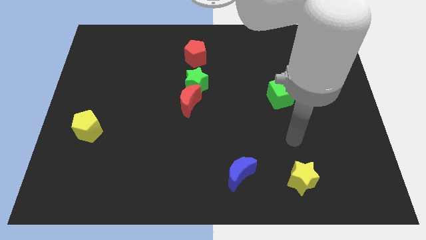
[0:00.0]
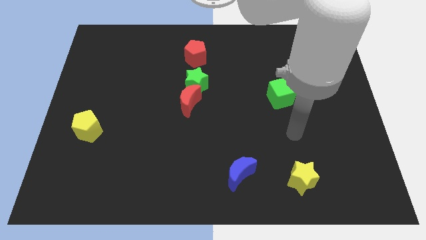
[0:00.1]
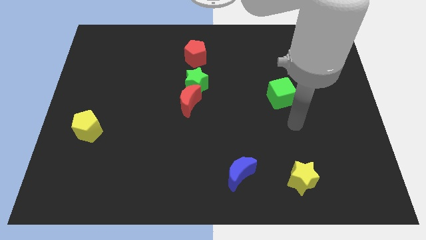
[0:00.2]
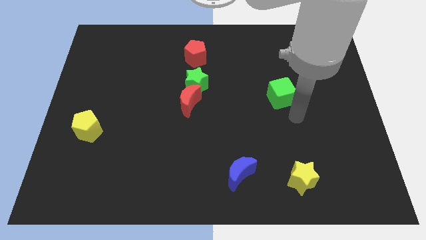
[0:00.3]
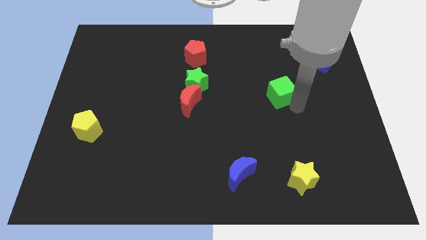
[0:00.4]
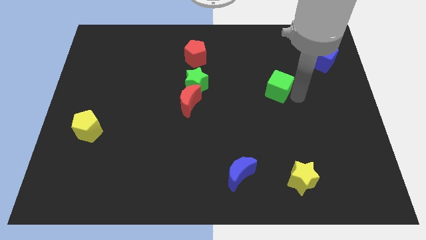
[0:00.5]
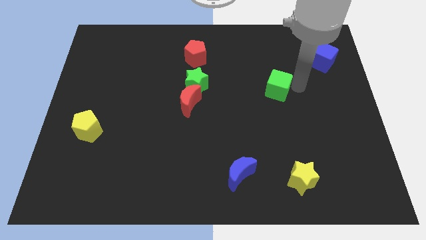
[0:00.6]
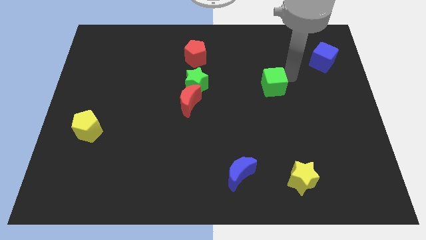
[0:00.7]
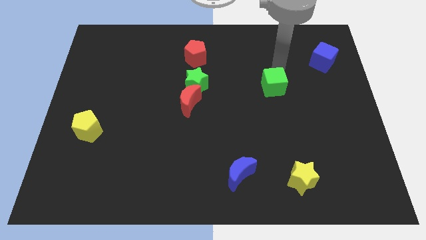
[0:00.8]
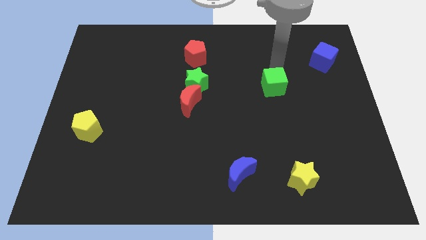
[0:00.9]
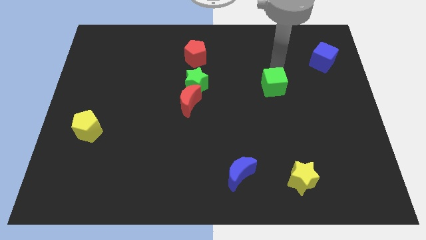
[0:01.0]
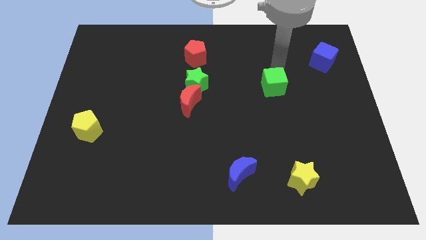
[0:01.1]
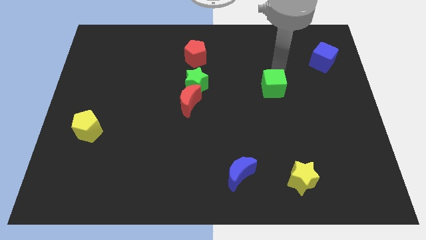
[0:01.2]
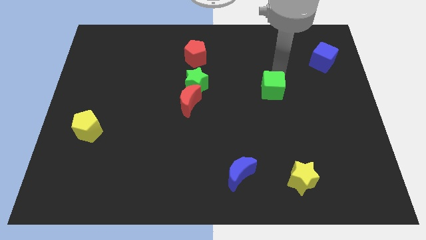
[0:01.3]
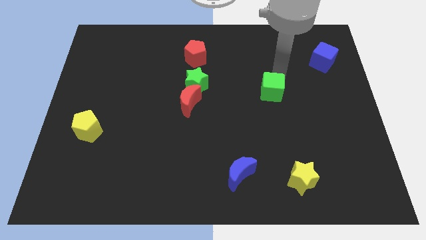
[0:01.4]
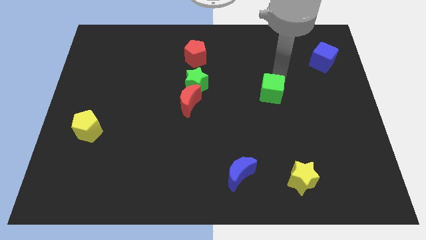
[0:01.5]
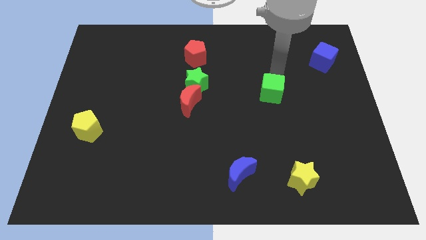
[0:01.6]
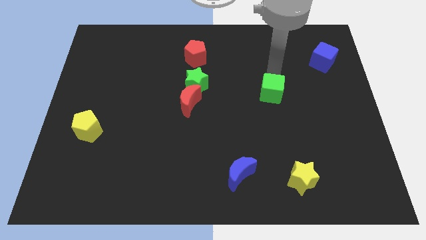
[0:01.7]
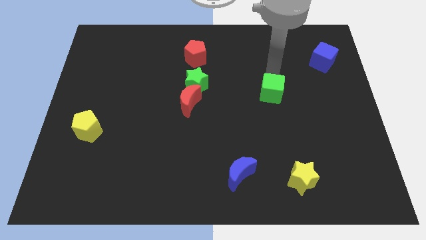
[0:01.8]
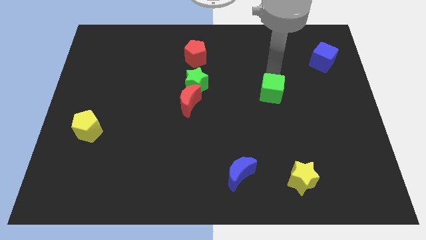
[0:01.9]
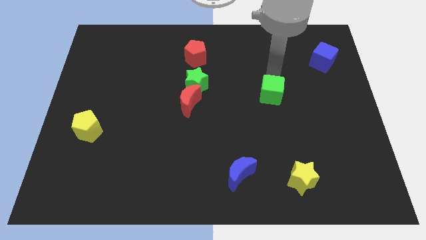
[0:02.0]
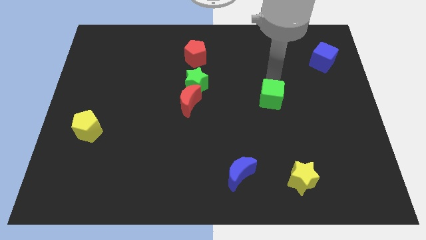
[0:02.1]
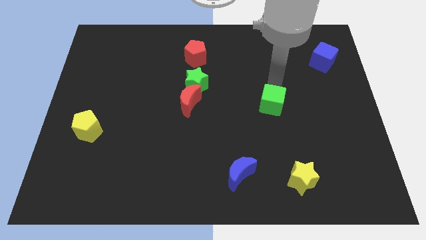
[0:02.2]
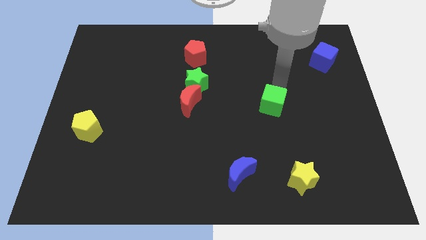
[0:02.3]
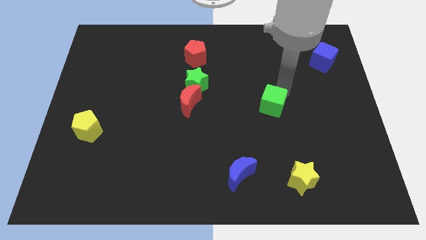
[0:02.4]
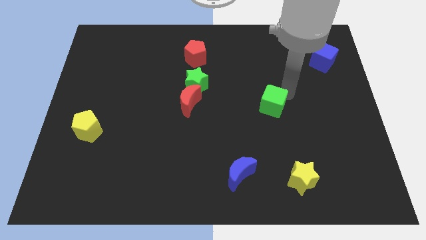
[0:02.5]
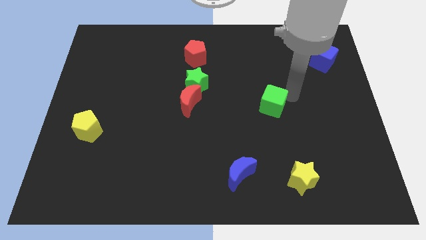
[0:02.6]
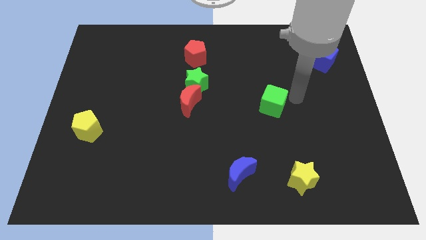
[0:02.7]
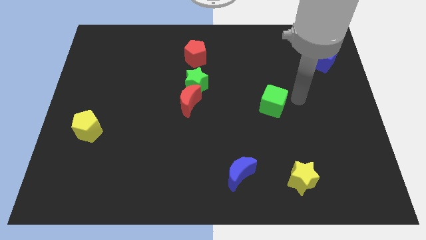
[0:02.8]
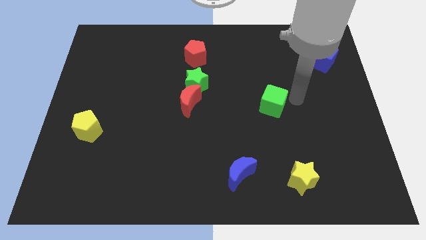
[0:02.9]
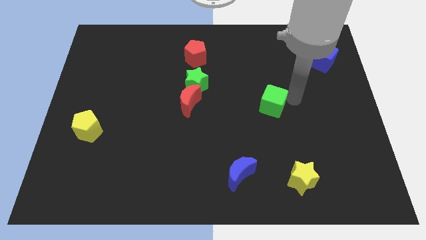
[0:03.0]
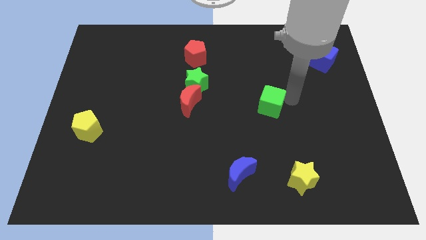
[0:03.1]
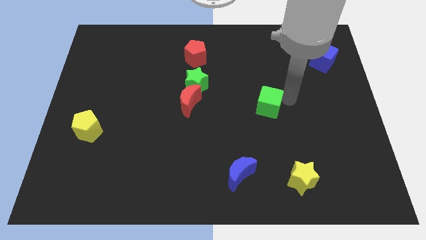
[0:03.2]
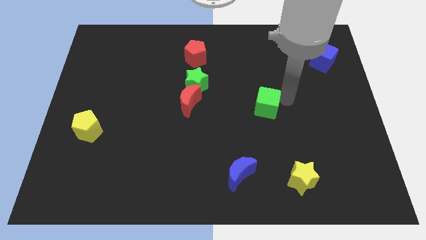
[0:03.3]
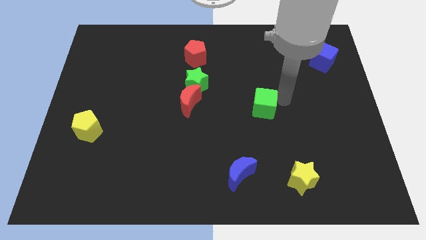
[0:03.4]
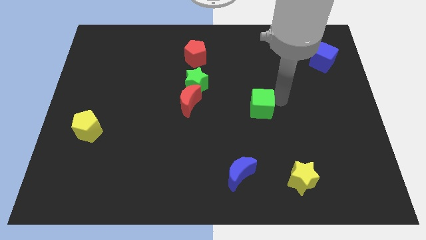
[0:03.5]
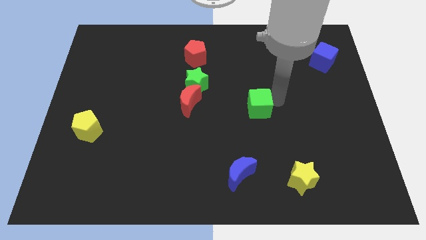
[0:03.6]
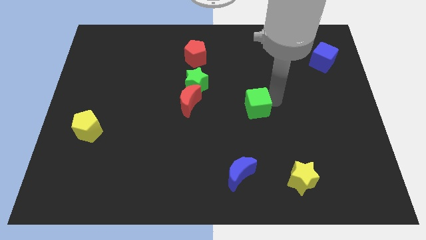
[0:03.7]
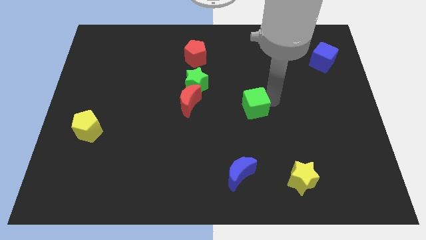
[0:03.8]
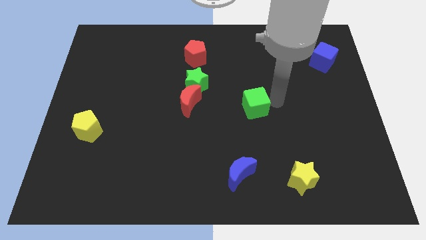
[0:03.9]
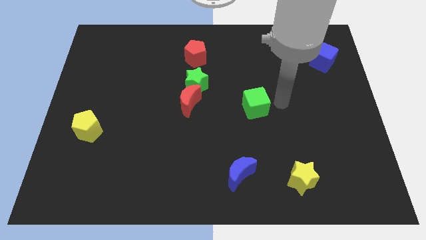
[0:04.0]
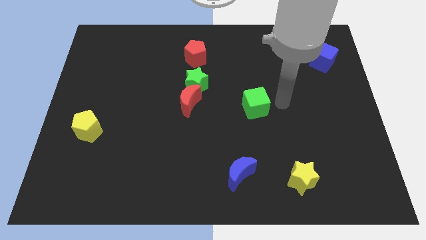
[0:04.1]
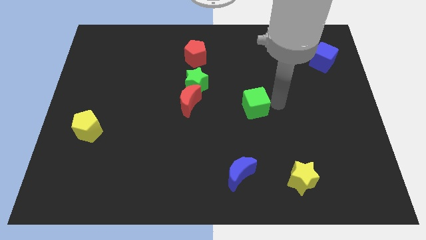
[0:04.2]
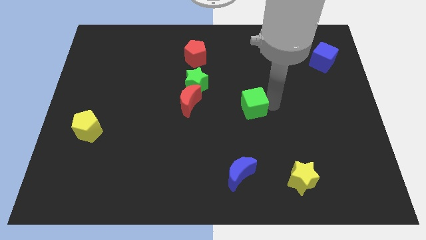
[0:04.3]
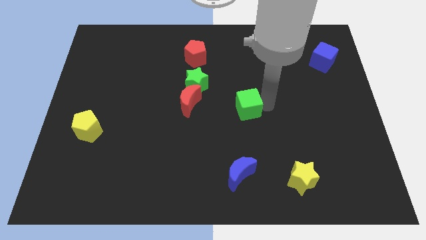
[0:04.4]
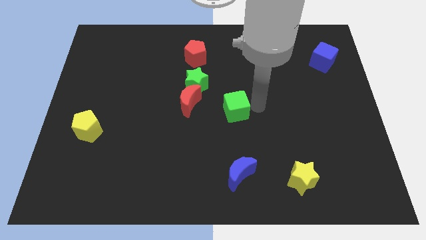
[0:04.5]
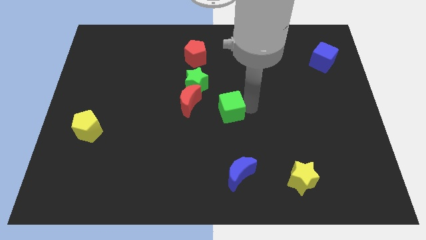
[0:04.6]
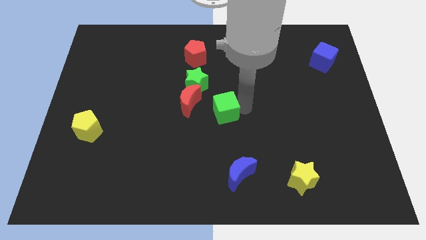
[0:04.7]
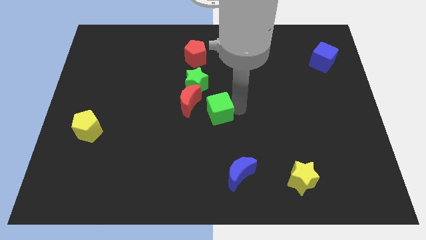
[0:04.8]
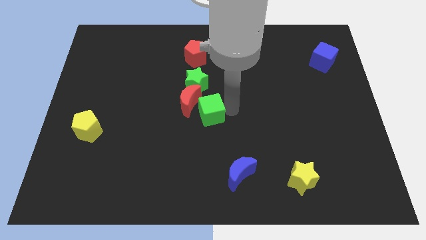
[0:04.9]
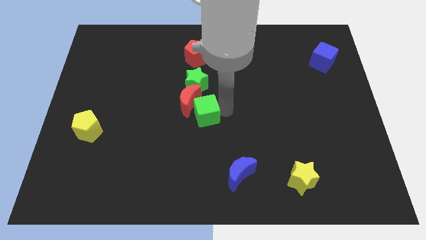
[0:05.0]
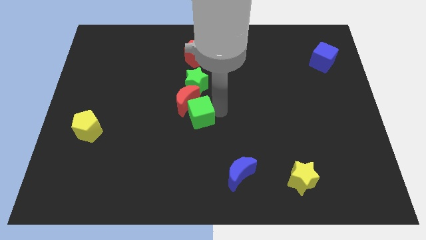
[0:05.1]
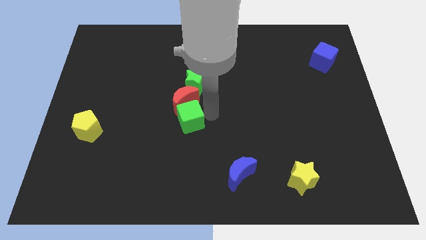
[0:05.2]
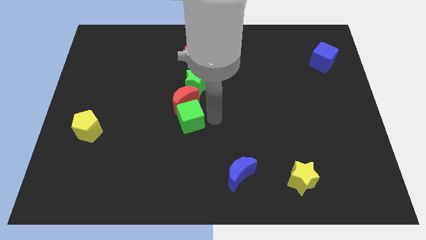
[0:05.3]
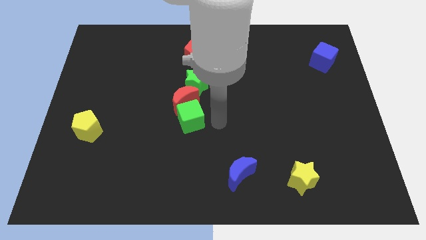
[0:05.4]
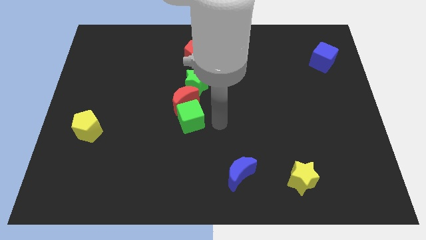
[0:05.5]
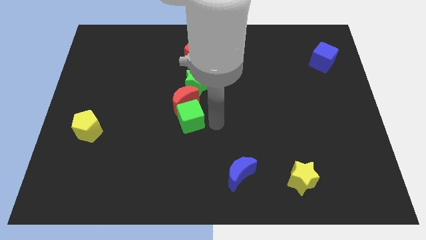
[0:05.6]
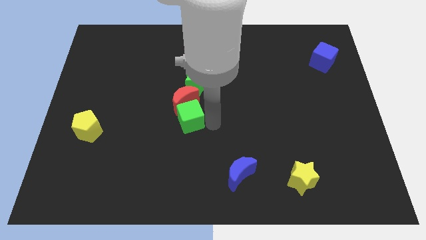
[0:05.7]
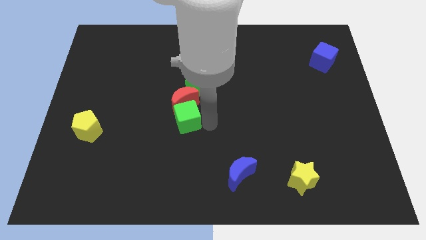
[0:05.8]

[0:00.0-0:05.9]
slide the green cube to the left

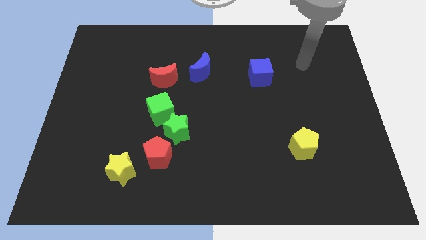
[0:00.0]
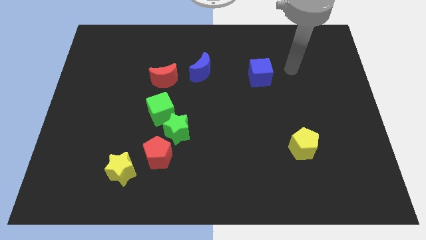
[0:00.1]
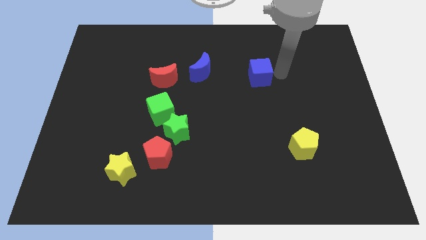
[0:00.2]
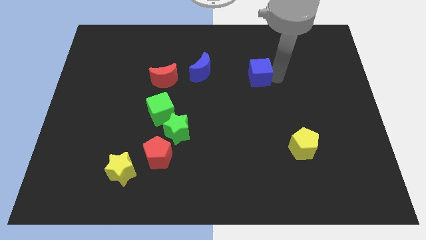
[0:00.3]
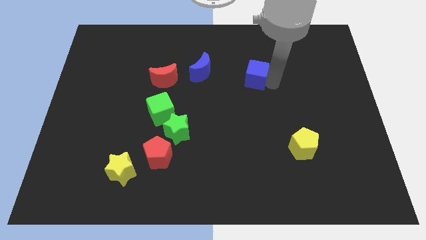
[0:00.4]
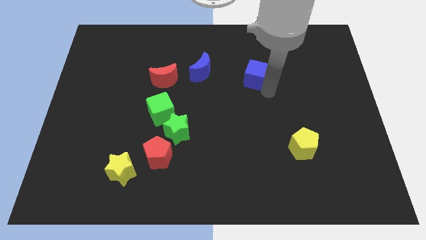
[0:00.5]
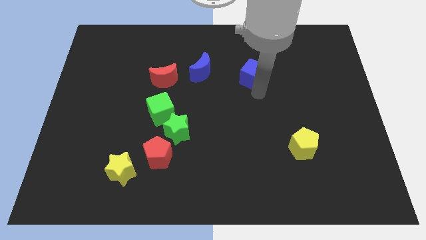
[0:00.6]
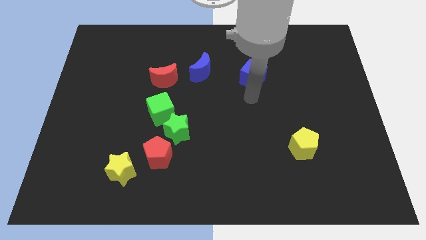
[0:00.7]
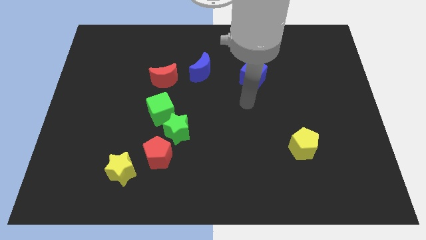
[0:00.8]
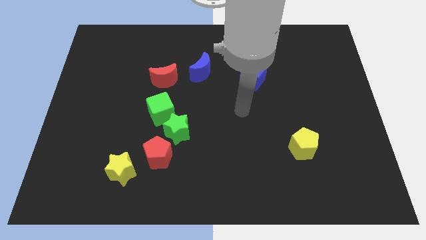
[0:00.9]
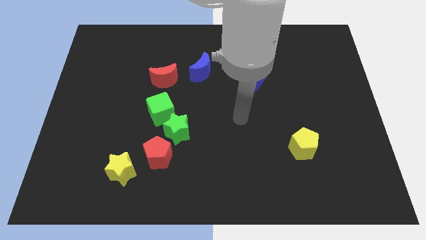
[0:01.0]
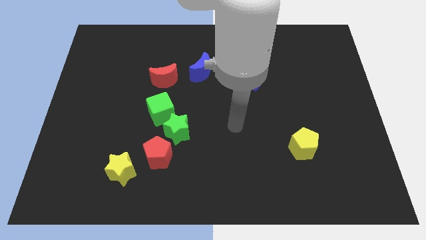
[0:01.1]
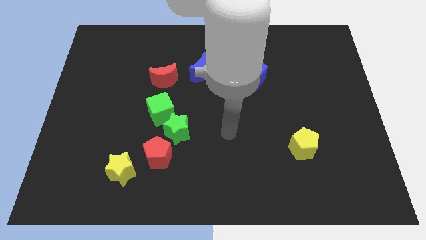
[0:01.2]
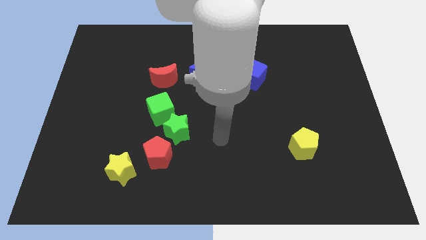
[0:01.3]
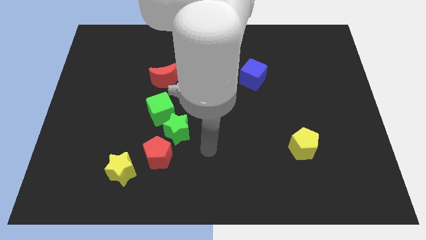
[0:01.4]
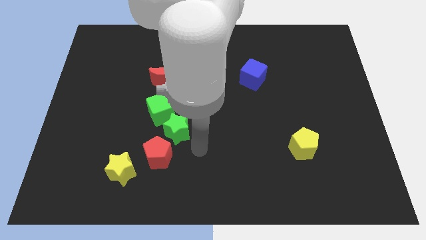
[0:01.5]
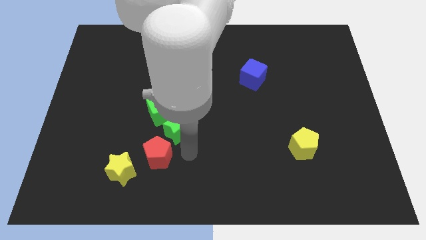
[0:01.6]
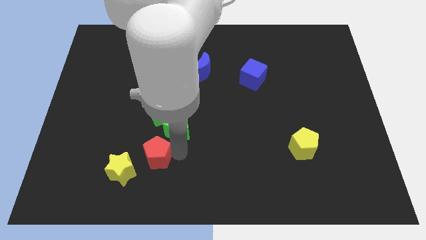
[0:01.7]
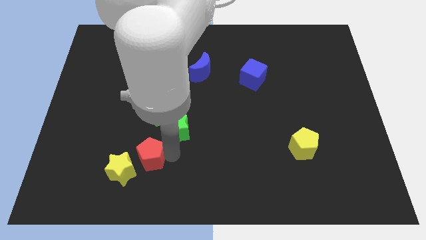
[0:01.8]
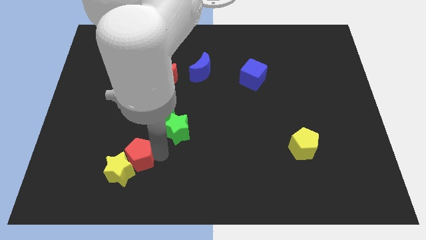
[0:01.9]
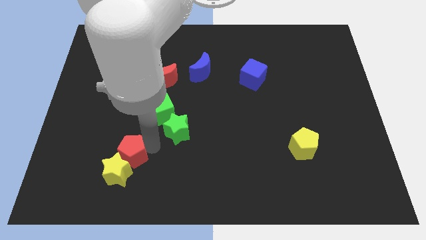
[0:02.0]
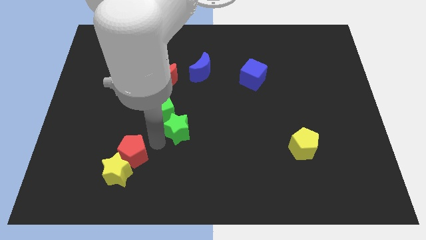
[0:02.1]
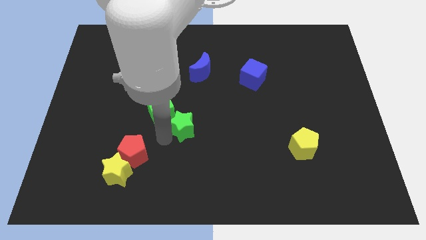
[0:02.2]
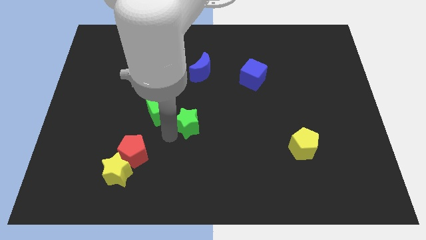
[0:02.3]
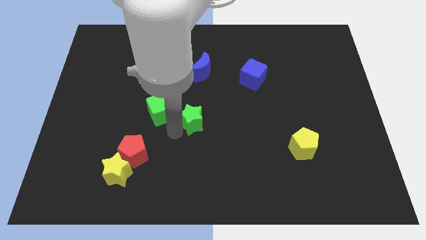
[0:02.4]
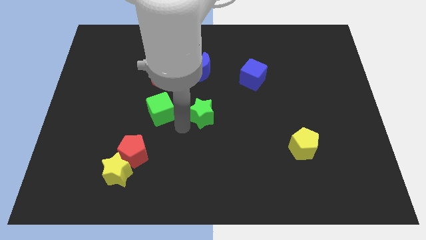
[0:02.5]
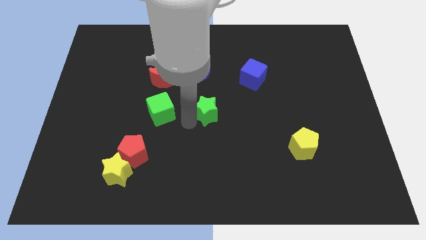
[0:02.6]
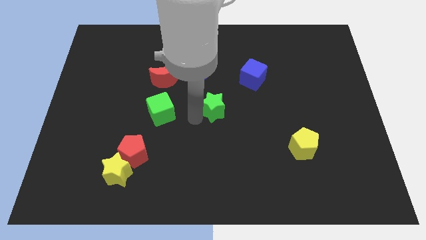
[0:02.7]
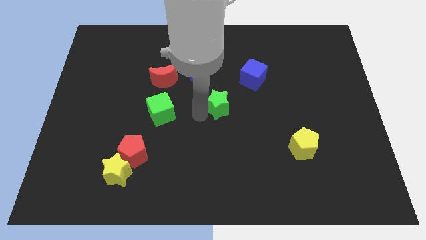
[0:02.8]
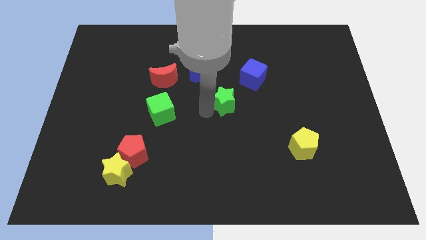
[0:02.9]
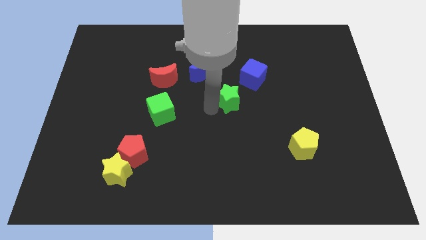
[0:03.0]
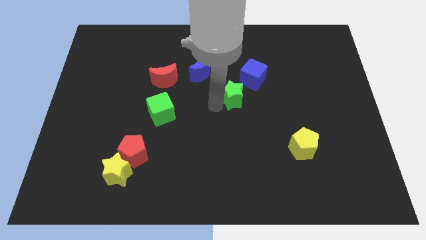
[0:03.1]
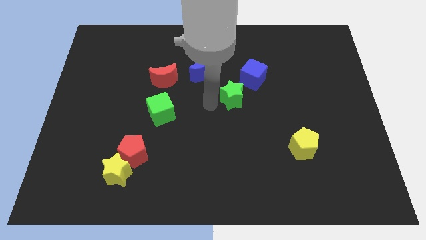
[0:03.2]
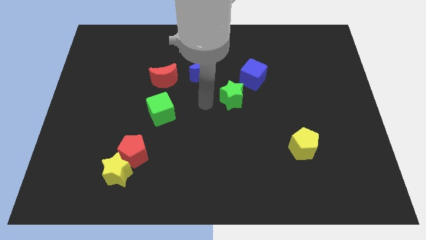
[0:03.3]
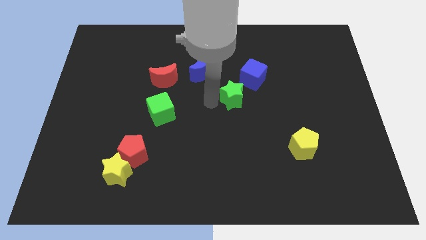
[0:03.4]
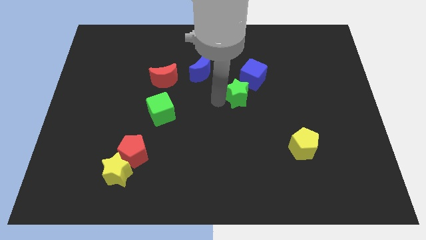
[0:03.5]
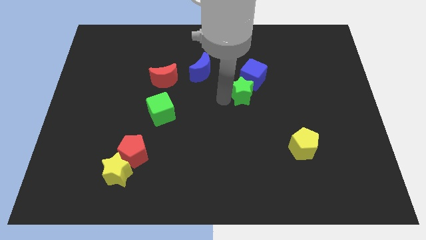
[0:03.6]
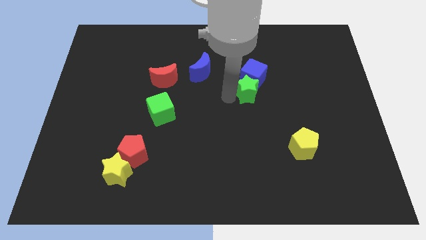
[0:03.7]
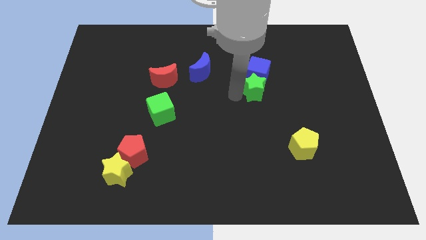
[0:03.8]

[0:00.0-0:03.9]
push the green star upwards and right diagonally
